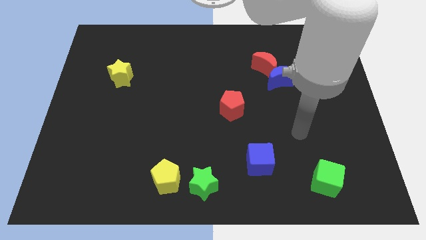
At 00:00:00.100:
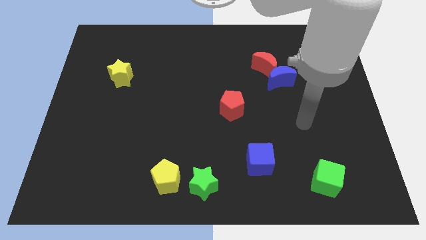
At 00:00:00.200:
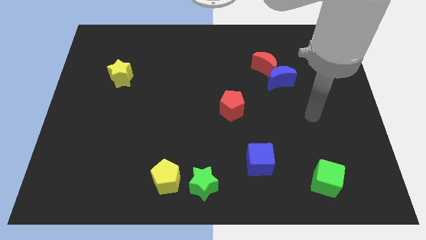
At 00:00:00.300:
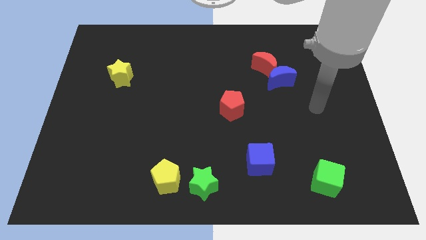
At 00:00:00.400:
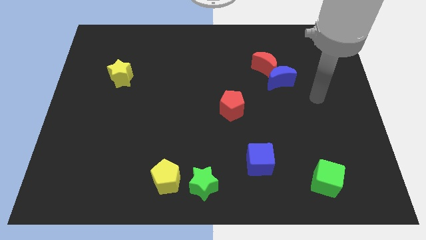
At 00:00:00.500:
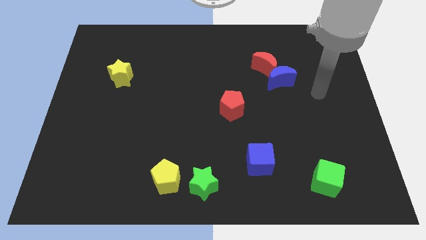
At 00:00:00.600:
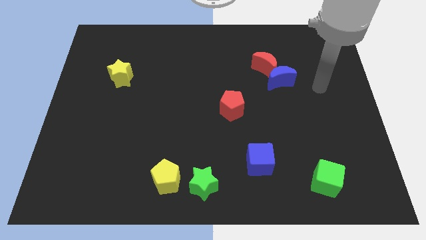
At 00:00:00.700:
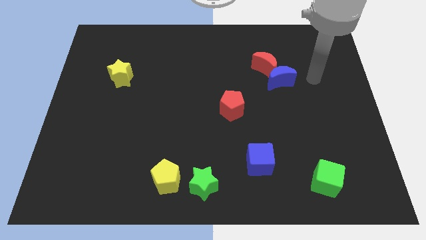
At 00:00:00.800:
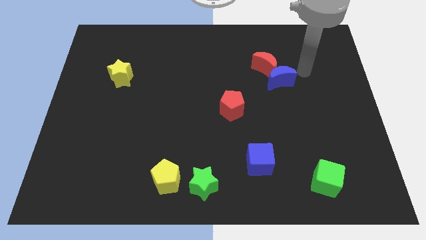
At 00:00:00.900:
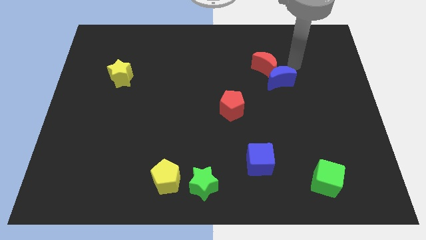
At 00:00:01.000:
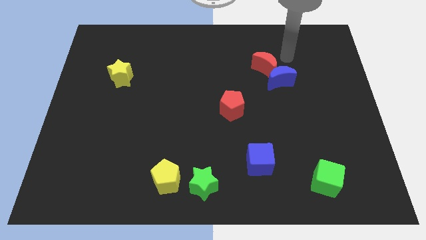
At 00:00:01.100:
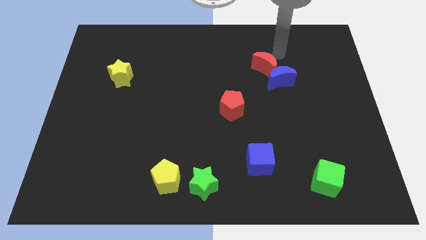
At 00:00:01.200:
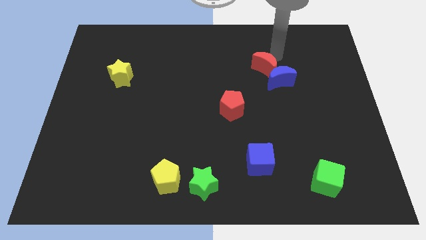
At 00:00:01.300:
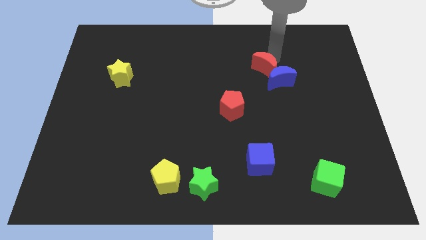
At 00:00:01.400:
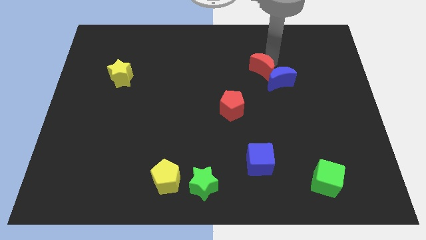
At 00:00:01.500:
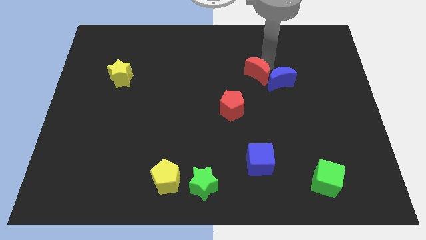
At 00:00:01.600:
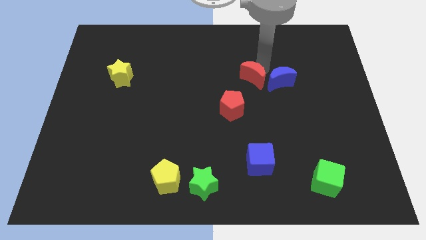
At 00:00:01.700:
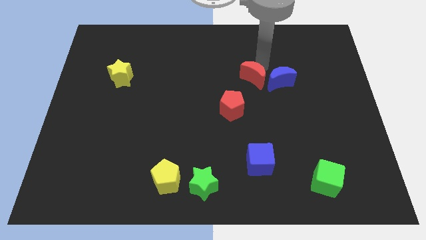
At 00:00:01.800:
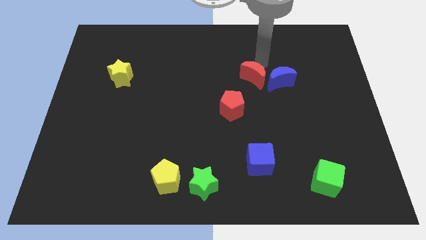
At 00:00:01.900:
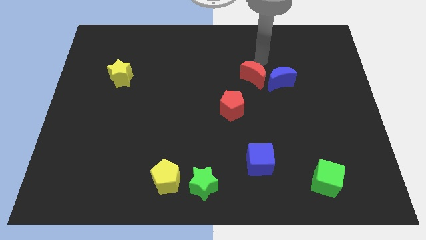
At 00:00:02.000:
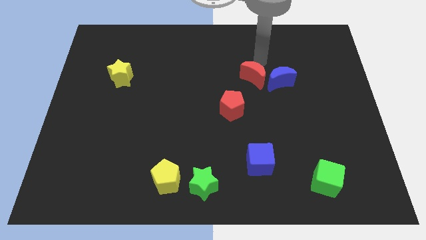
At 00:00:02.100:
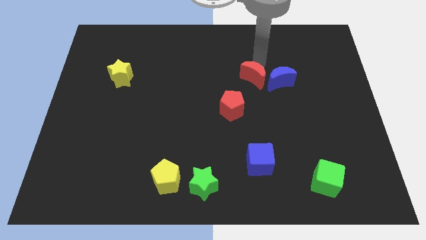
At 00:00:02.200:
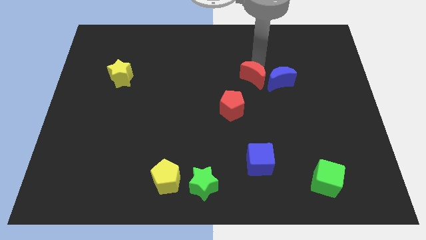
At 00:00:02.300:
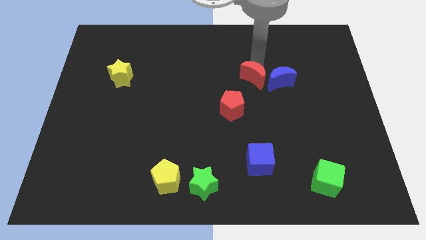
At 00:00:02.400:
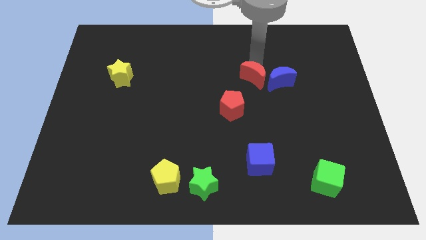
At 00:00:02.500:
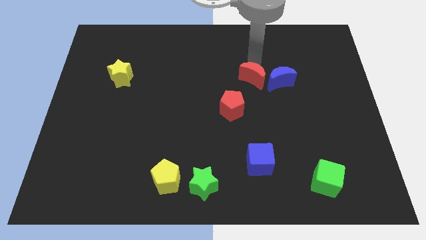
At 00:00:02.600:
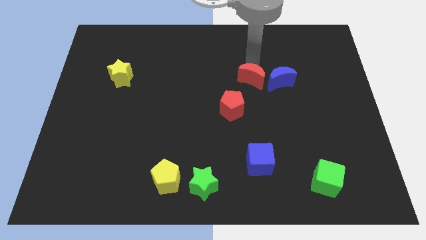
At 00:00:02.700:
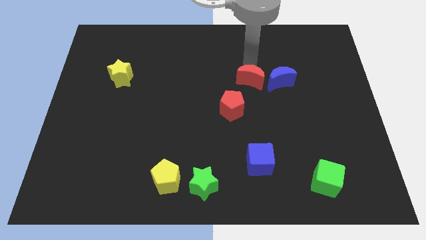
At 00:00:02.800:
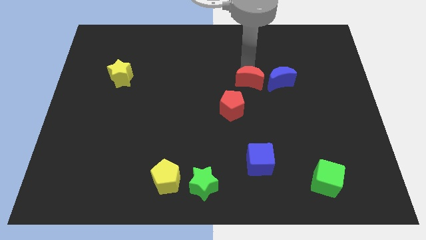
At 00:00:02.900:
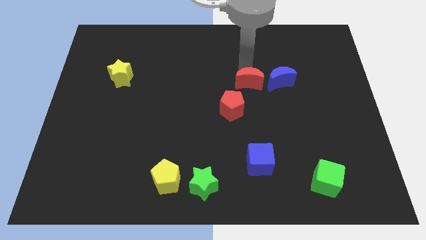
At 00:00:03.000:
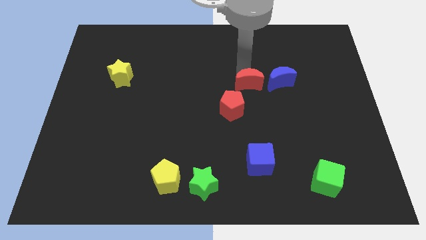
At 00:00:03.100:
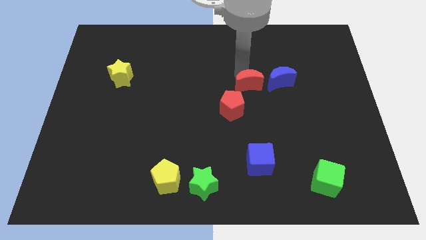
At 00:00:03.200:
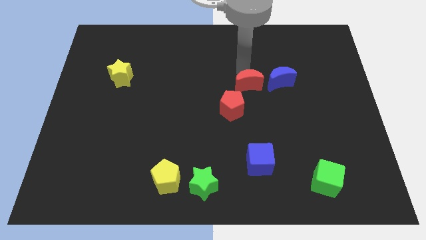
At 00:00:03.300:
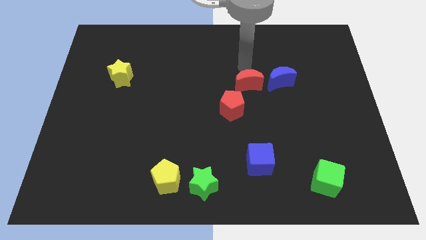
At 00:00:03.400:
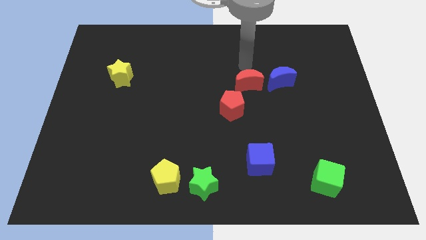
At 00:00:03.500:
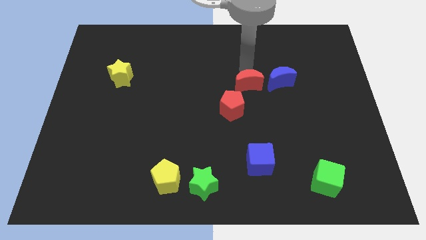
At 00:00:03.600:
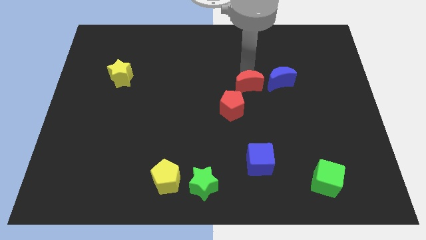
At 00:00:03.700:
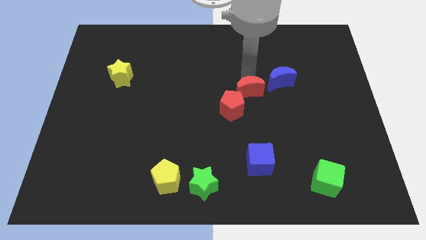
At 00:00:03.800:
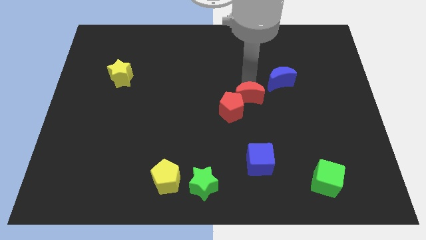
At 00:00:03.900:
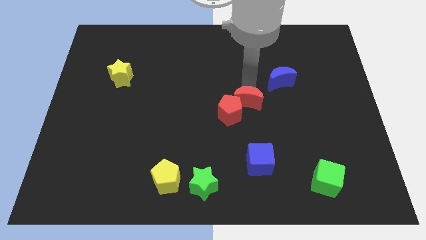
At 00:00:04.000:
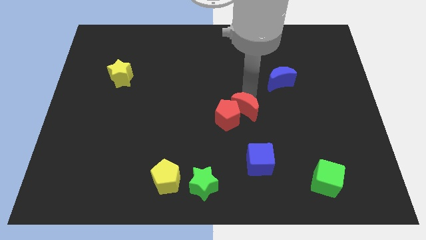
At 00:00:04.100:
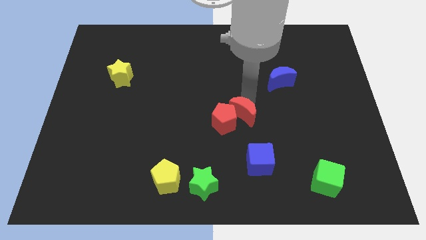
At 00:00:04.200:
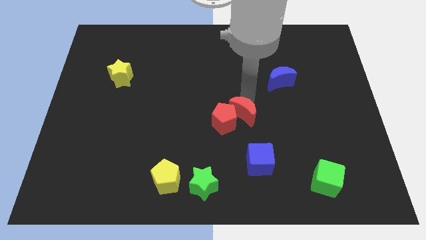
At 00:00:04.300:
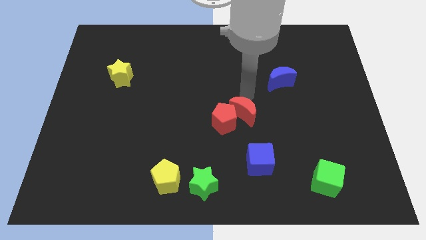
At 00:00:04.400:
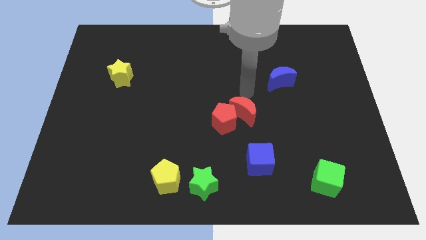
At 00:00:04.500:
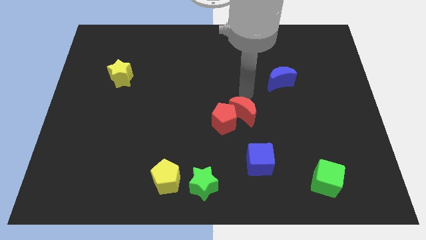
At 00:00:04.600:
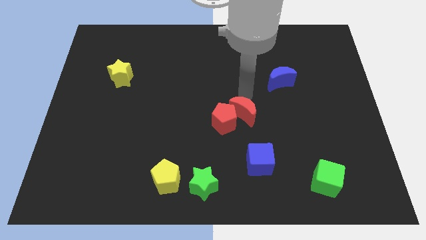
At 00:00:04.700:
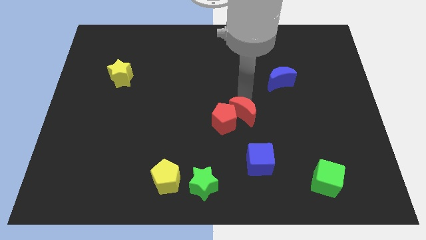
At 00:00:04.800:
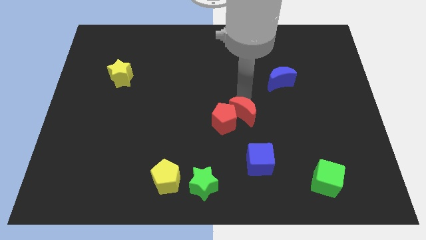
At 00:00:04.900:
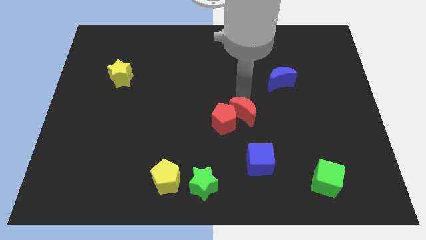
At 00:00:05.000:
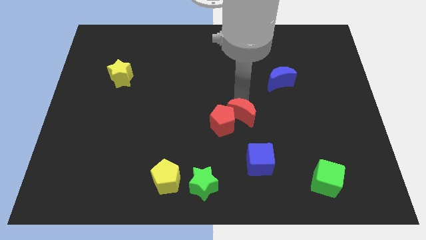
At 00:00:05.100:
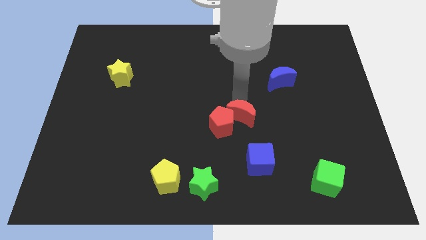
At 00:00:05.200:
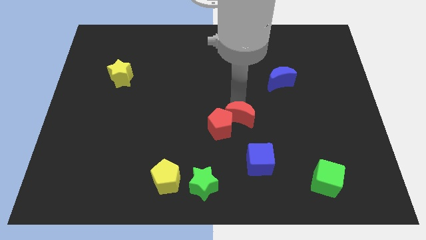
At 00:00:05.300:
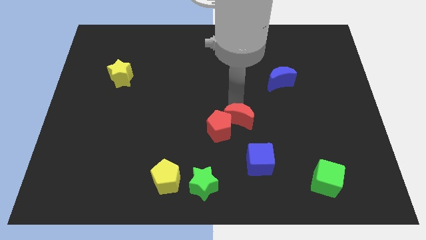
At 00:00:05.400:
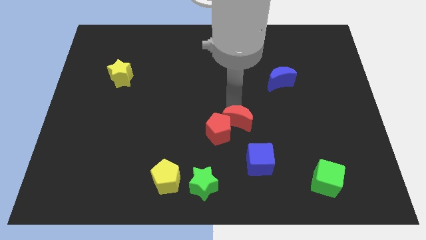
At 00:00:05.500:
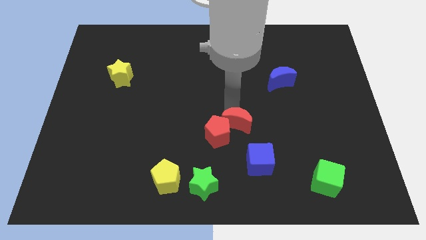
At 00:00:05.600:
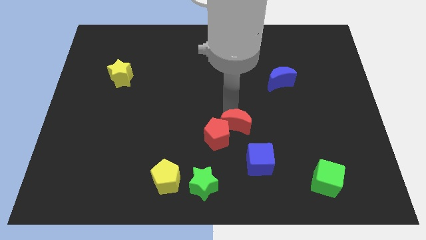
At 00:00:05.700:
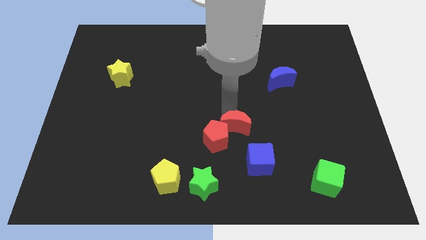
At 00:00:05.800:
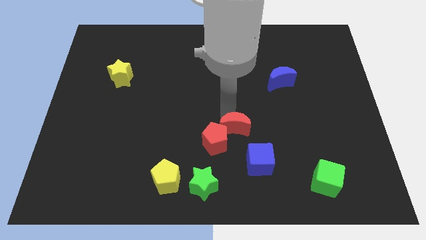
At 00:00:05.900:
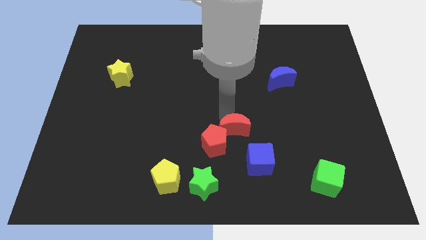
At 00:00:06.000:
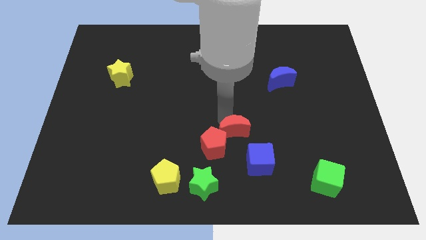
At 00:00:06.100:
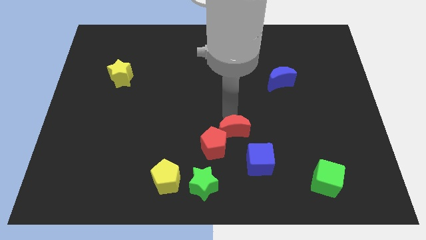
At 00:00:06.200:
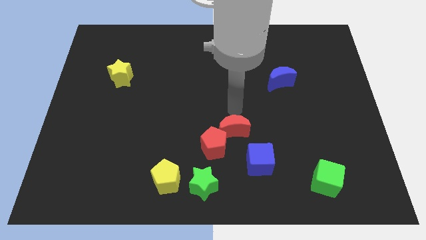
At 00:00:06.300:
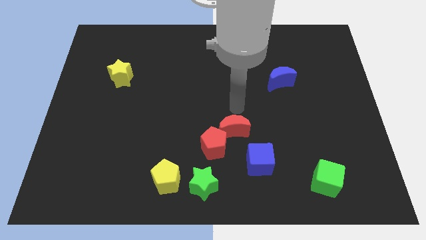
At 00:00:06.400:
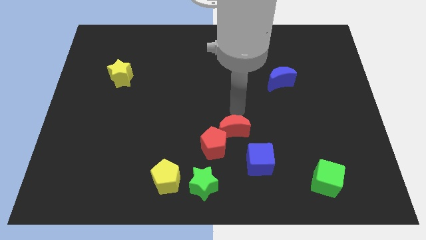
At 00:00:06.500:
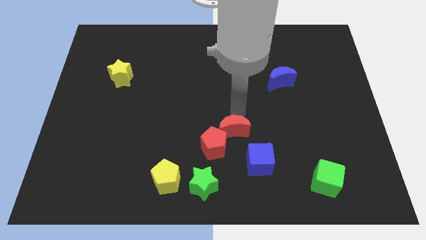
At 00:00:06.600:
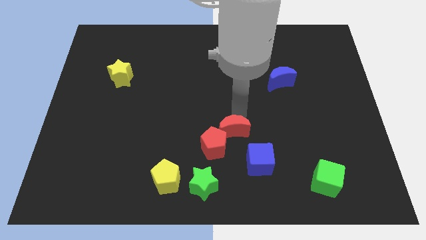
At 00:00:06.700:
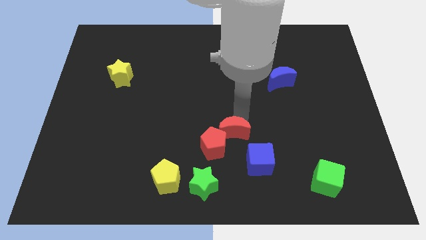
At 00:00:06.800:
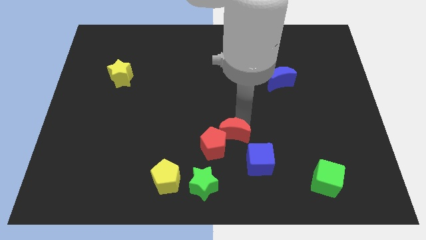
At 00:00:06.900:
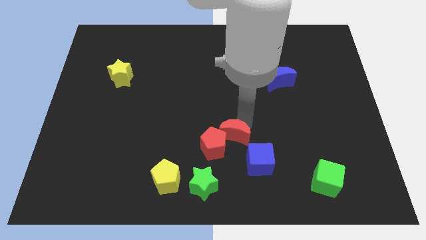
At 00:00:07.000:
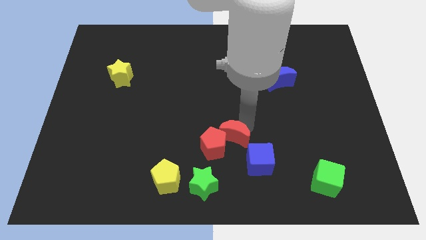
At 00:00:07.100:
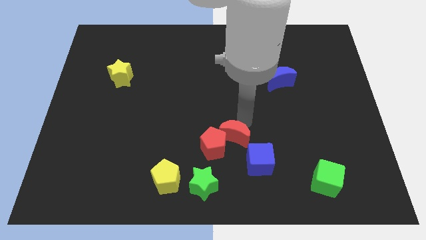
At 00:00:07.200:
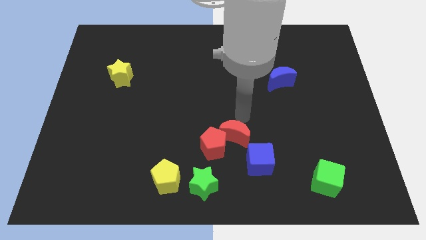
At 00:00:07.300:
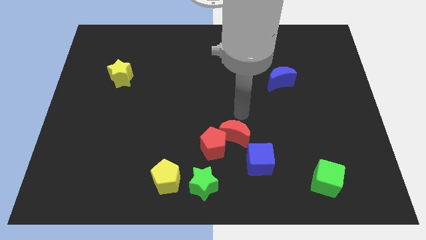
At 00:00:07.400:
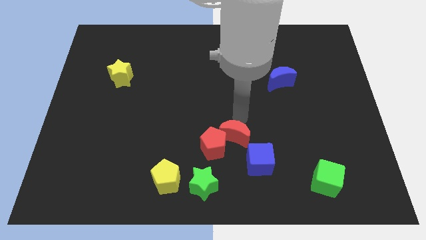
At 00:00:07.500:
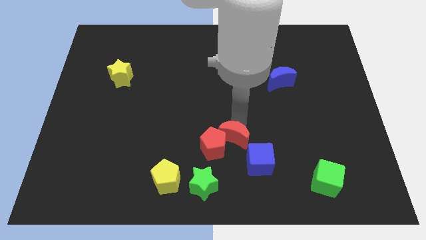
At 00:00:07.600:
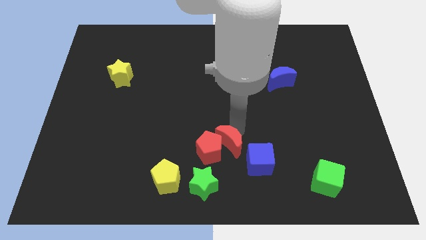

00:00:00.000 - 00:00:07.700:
push the red moon to the top right side of the green star
